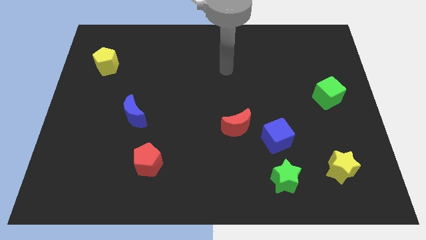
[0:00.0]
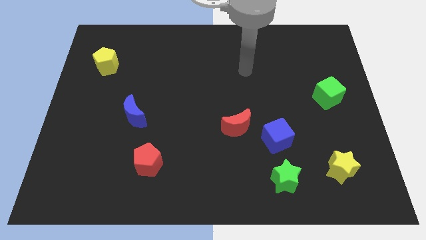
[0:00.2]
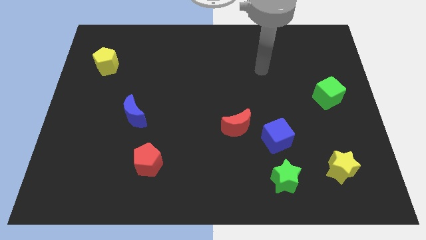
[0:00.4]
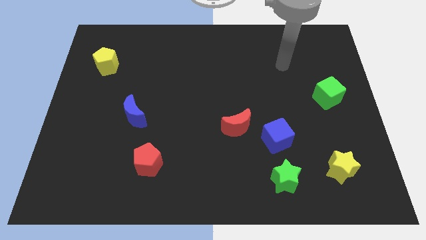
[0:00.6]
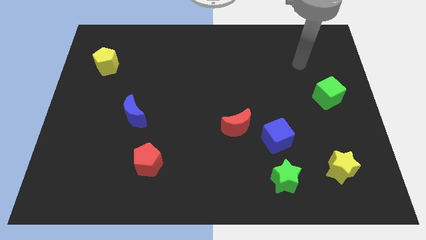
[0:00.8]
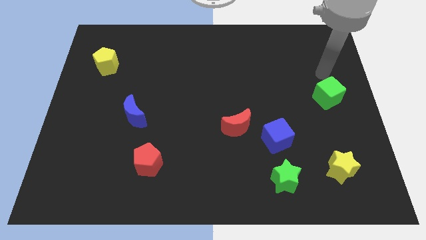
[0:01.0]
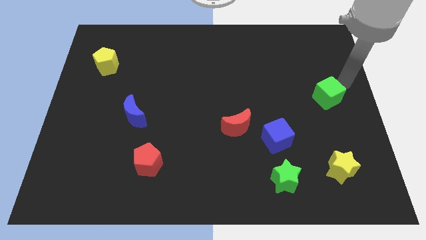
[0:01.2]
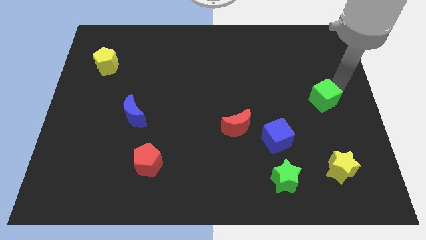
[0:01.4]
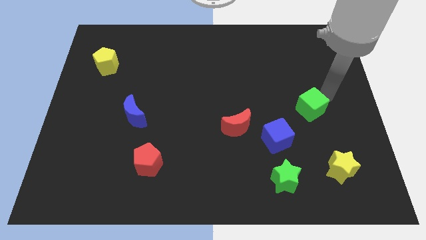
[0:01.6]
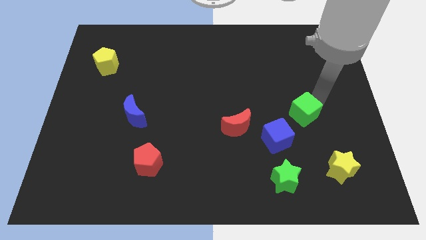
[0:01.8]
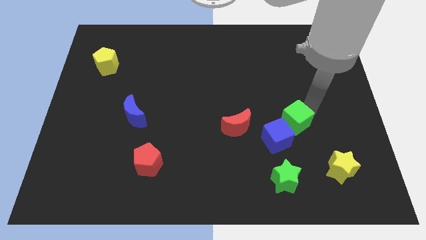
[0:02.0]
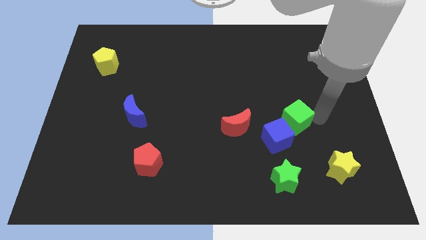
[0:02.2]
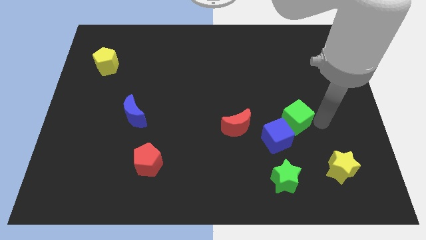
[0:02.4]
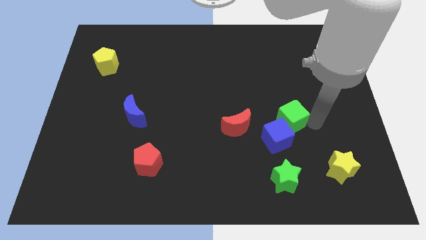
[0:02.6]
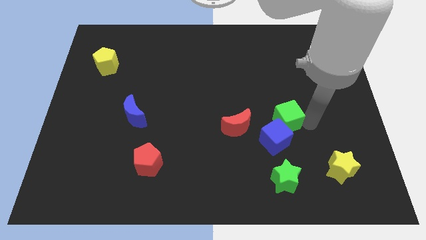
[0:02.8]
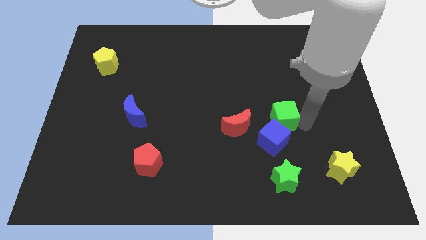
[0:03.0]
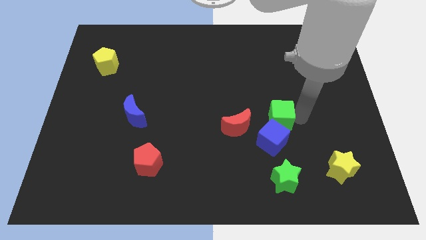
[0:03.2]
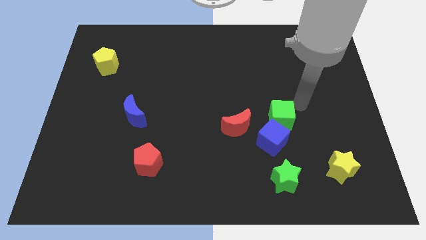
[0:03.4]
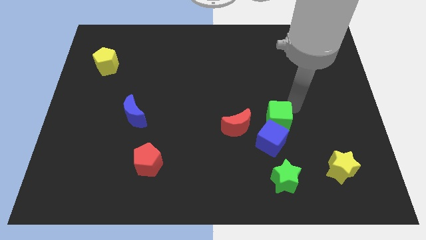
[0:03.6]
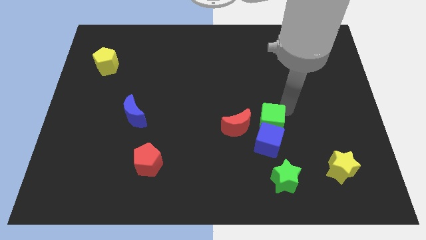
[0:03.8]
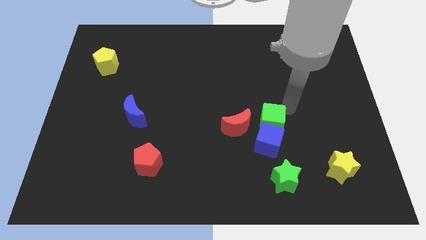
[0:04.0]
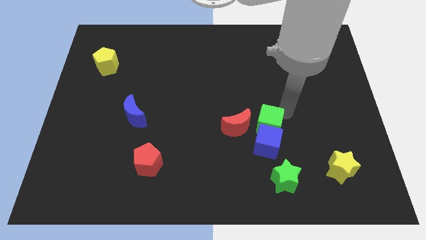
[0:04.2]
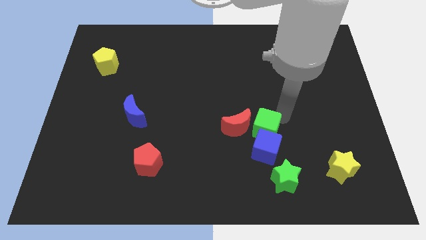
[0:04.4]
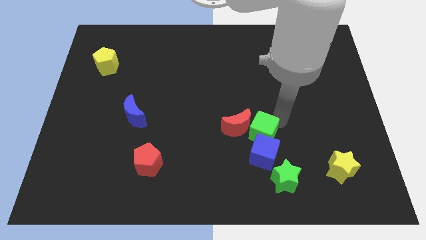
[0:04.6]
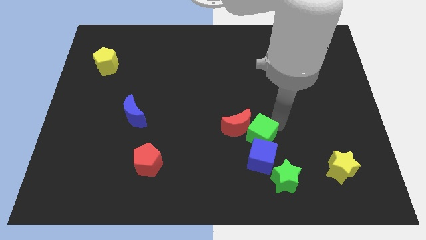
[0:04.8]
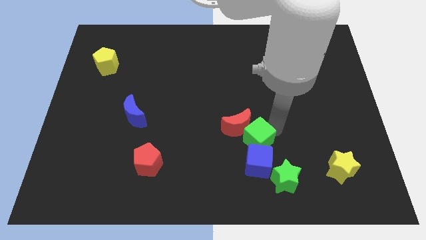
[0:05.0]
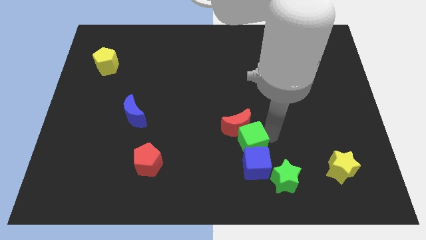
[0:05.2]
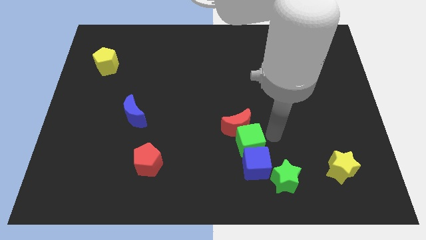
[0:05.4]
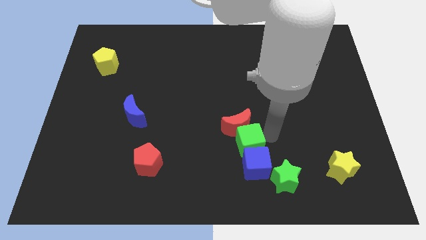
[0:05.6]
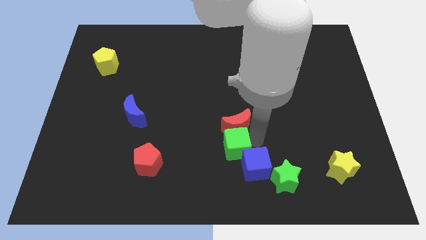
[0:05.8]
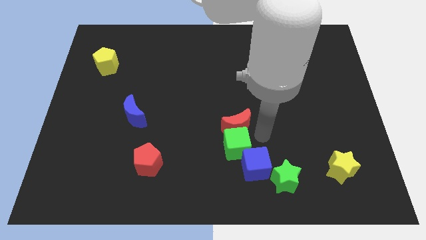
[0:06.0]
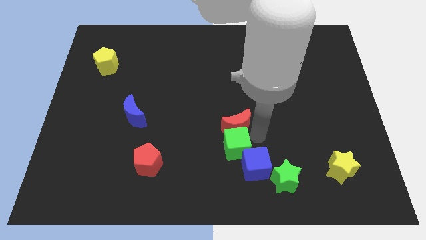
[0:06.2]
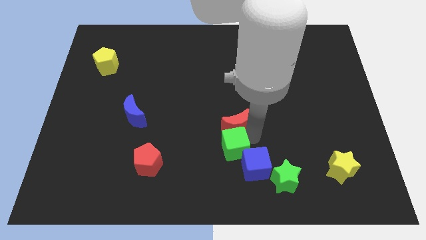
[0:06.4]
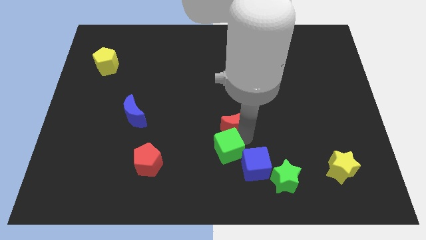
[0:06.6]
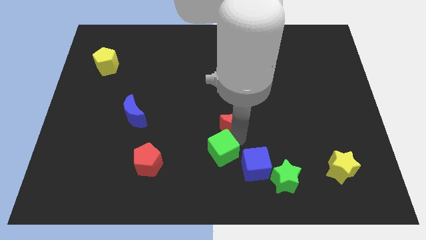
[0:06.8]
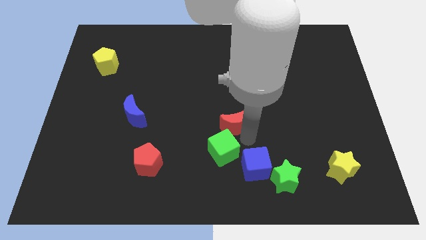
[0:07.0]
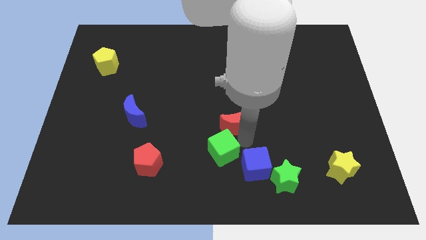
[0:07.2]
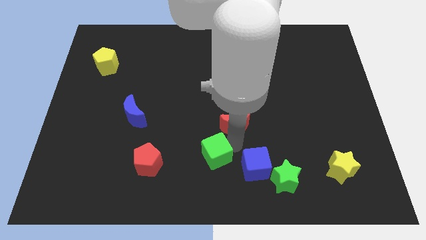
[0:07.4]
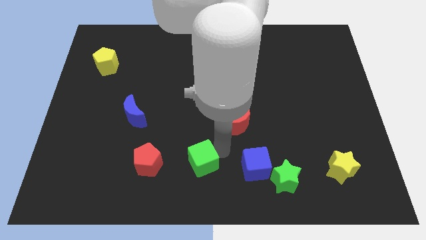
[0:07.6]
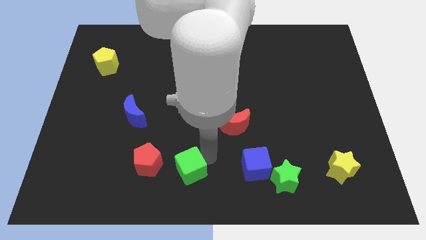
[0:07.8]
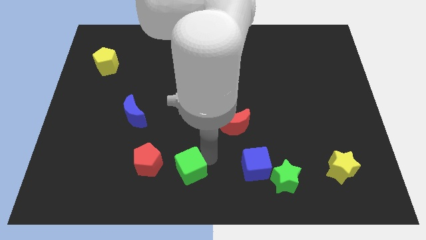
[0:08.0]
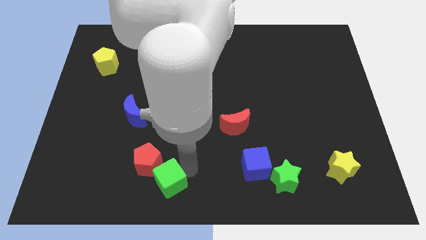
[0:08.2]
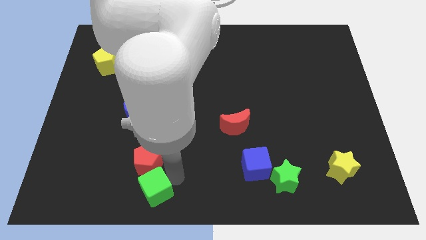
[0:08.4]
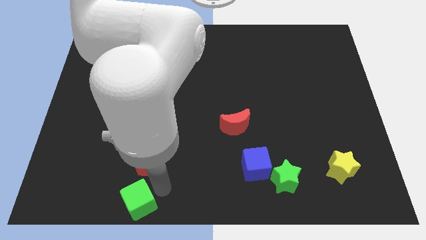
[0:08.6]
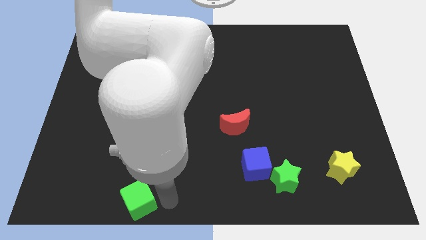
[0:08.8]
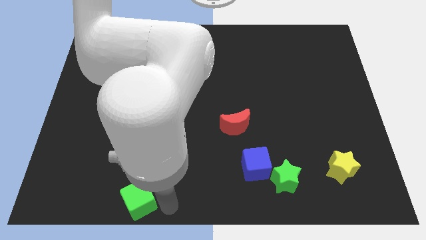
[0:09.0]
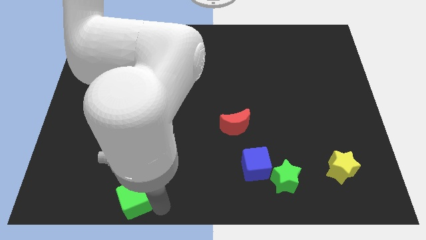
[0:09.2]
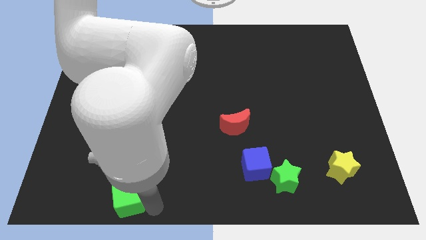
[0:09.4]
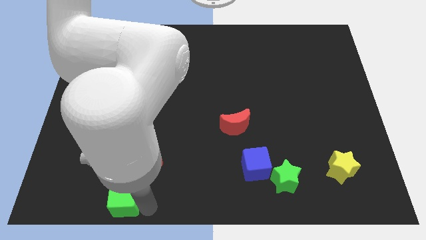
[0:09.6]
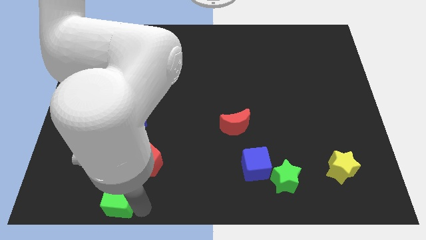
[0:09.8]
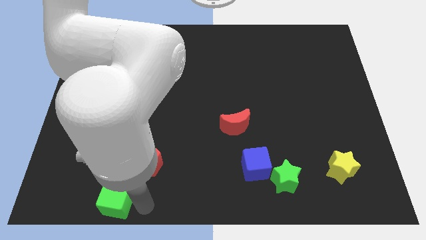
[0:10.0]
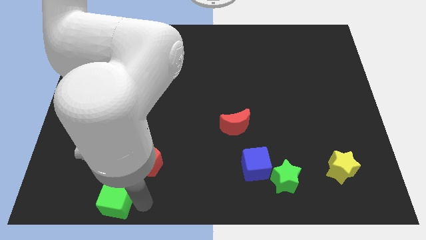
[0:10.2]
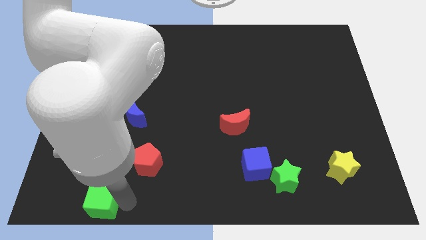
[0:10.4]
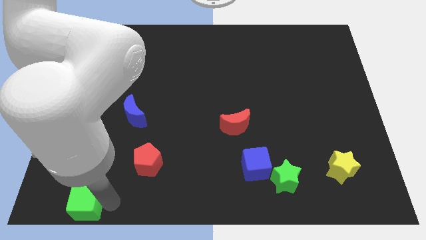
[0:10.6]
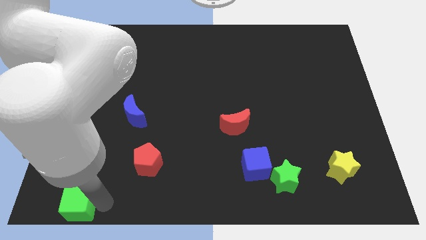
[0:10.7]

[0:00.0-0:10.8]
slide the green cube to the bottom left corner

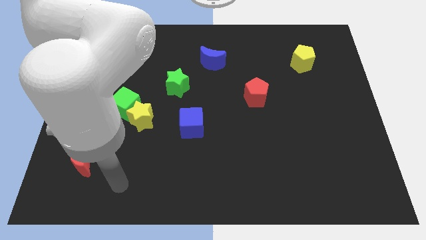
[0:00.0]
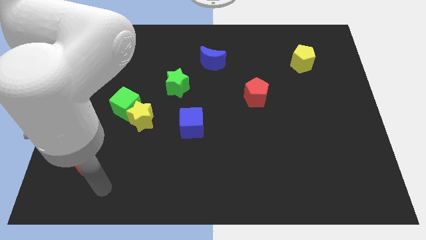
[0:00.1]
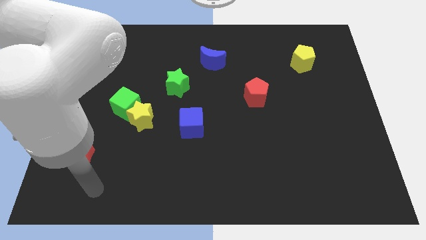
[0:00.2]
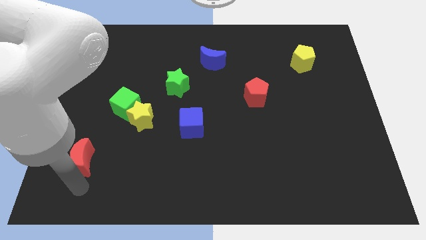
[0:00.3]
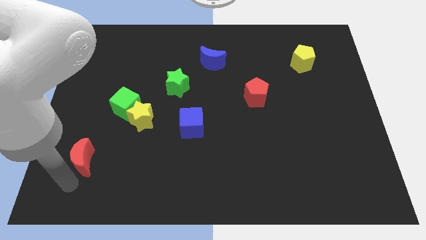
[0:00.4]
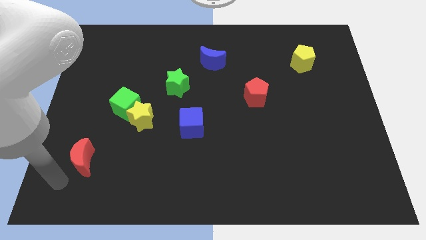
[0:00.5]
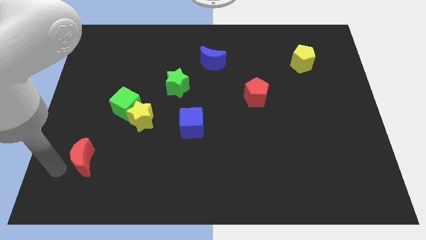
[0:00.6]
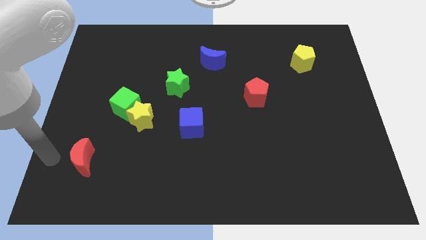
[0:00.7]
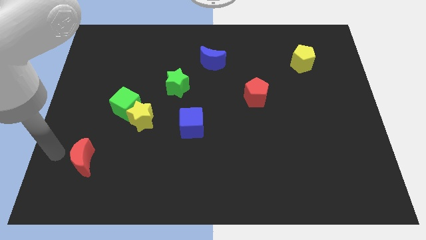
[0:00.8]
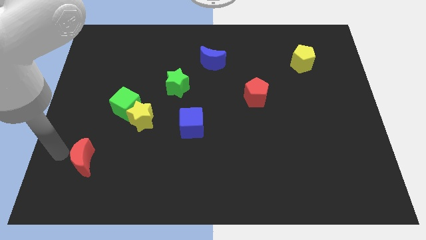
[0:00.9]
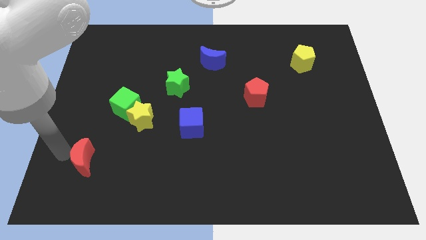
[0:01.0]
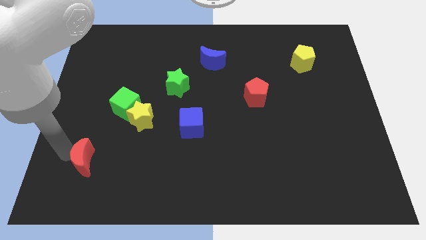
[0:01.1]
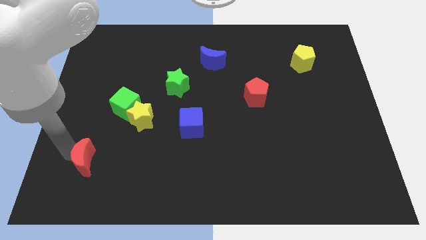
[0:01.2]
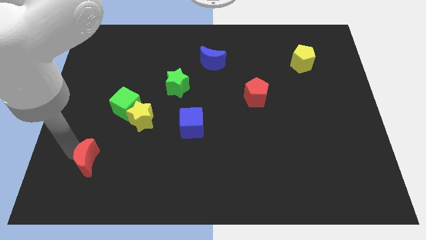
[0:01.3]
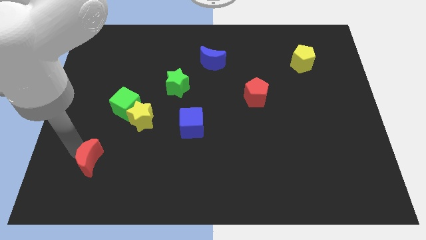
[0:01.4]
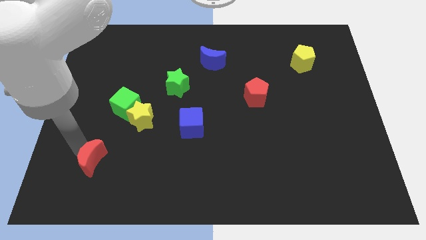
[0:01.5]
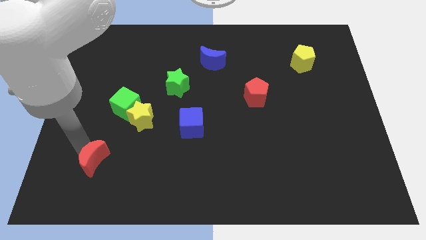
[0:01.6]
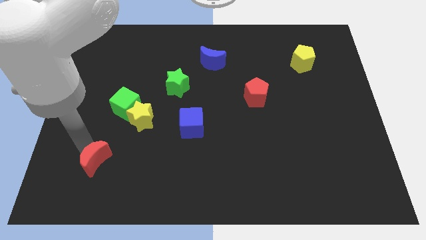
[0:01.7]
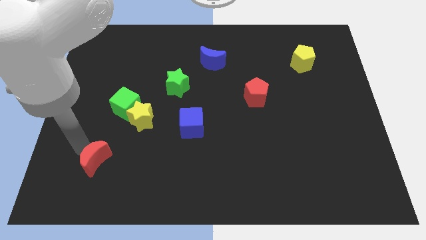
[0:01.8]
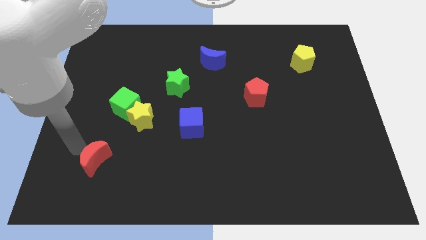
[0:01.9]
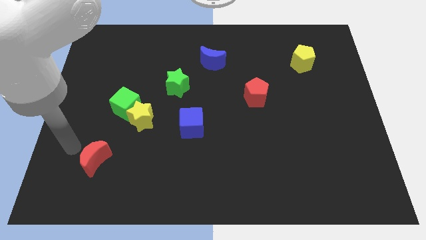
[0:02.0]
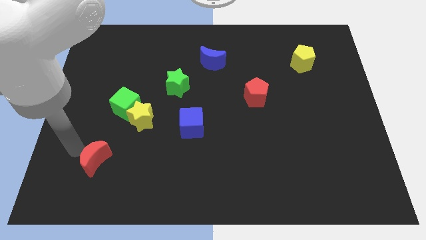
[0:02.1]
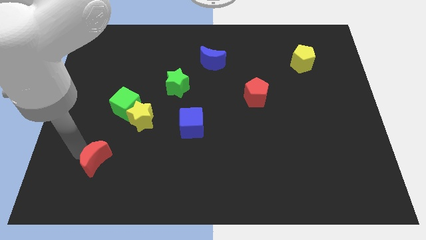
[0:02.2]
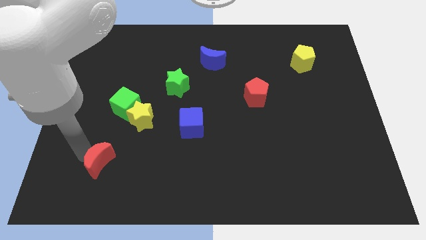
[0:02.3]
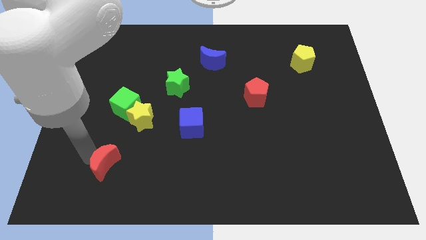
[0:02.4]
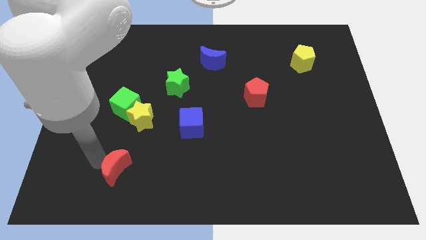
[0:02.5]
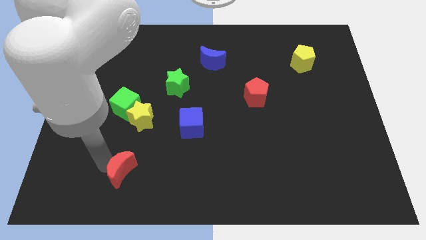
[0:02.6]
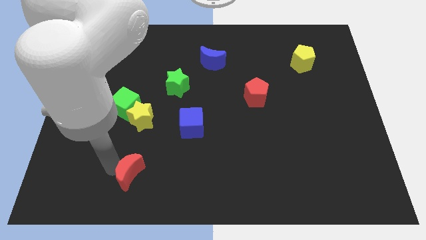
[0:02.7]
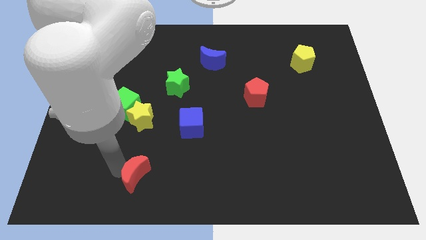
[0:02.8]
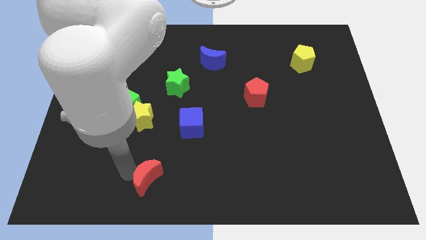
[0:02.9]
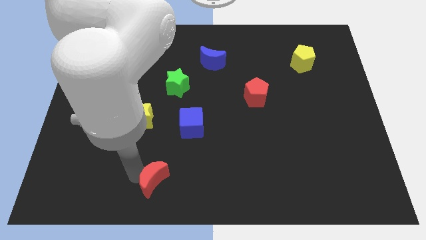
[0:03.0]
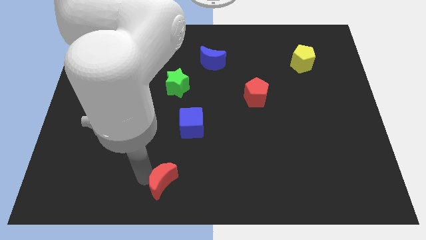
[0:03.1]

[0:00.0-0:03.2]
put the red moon to the bottom side
